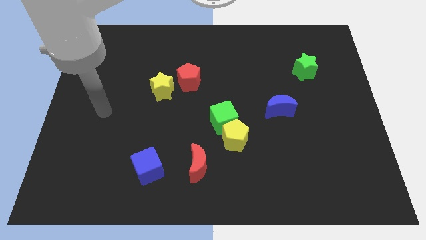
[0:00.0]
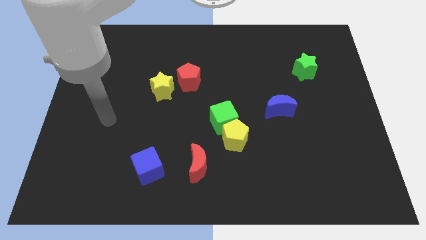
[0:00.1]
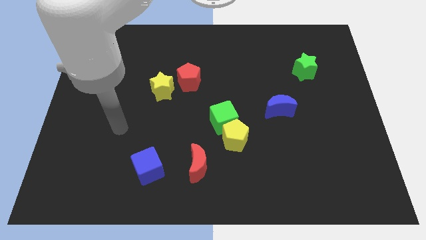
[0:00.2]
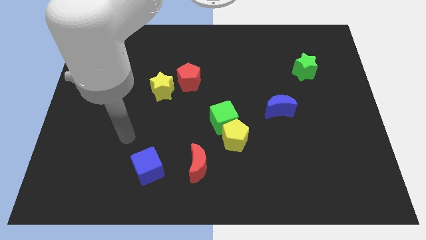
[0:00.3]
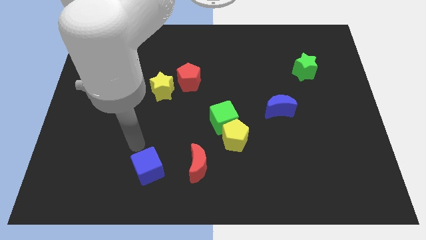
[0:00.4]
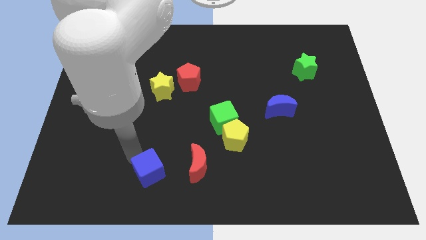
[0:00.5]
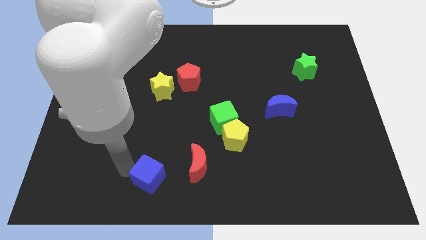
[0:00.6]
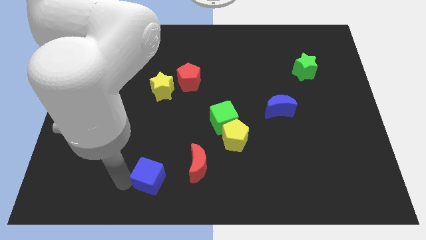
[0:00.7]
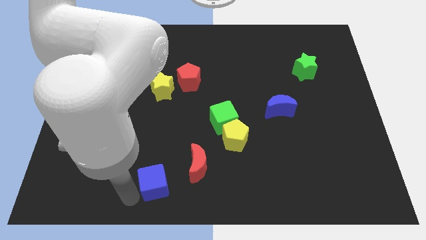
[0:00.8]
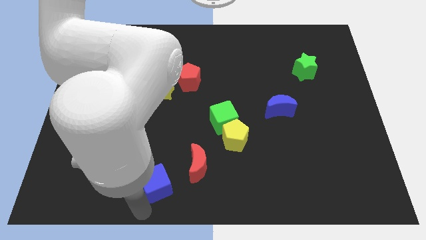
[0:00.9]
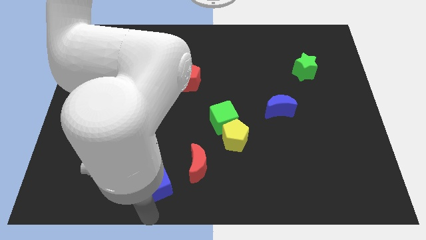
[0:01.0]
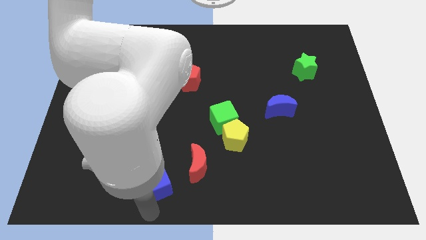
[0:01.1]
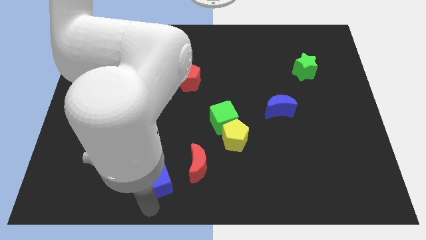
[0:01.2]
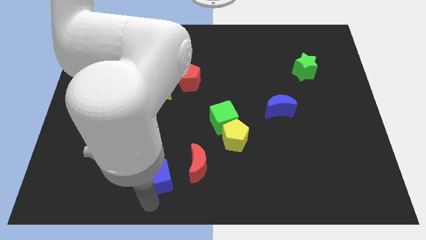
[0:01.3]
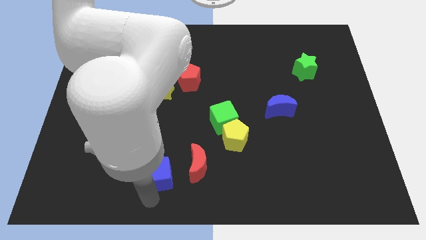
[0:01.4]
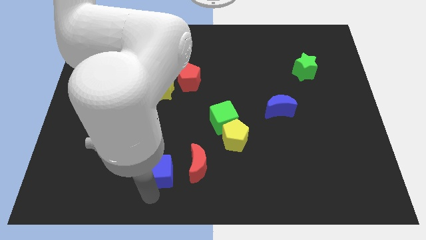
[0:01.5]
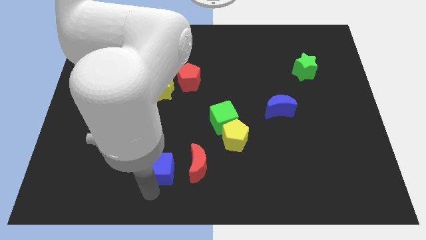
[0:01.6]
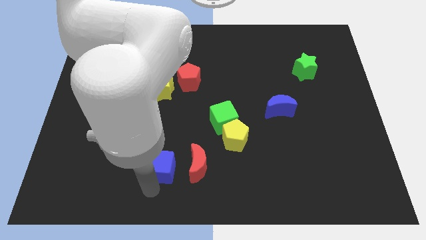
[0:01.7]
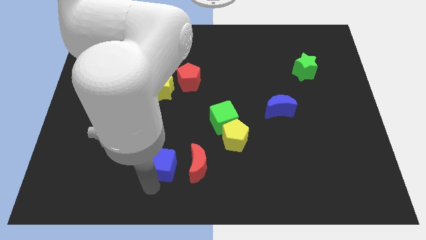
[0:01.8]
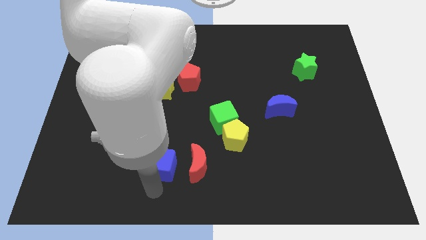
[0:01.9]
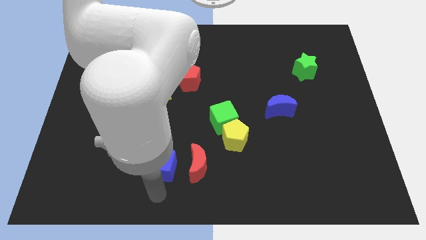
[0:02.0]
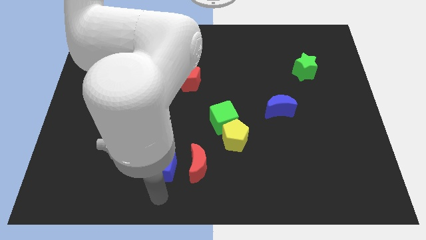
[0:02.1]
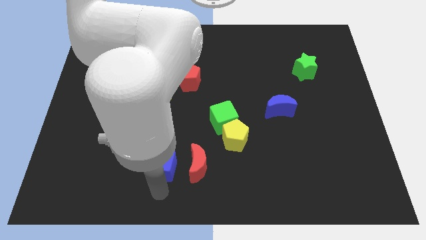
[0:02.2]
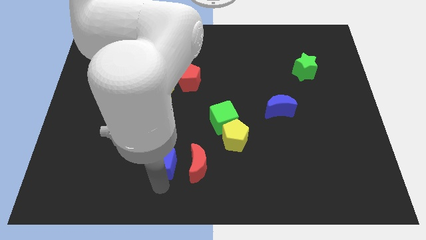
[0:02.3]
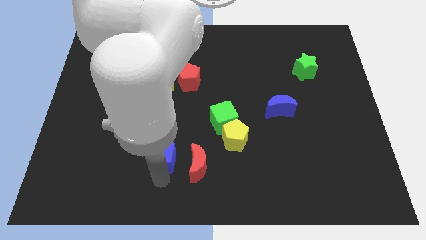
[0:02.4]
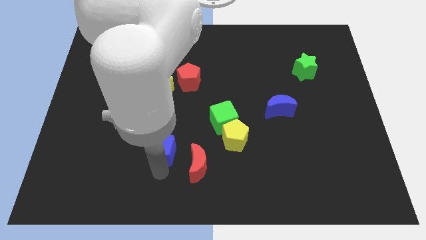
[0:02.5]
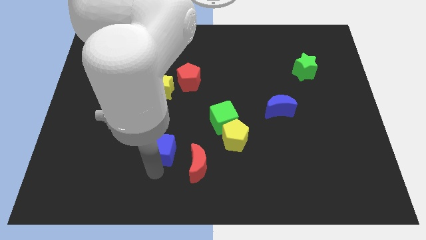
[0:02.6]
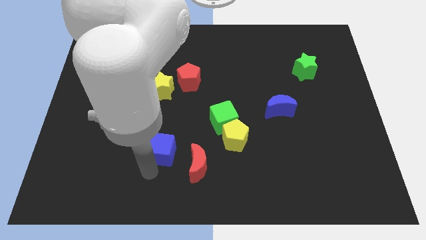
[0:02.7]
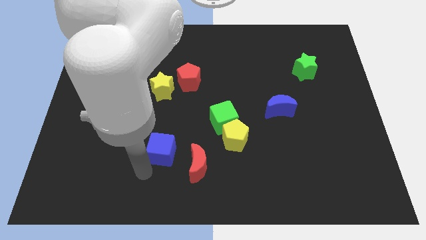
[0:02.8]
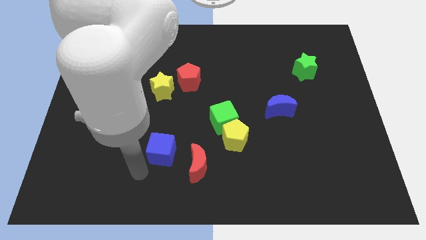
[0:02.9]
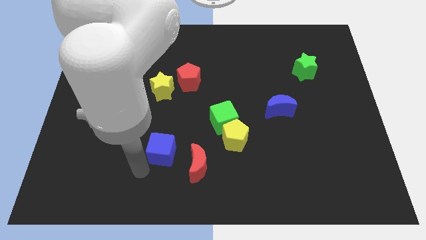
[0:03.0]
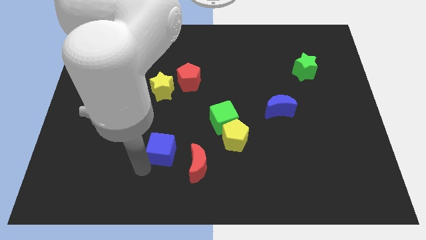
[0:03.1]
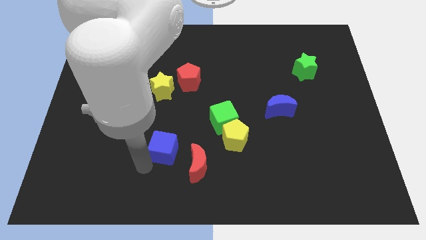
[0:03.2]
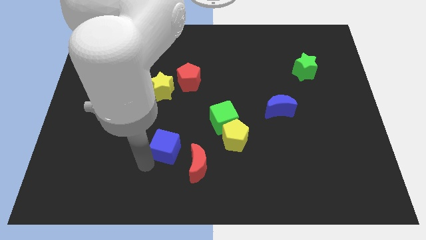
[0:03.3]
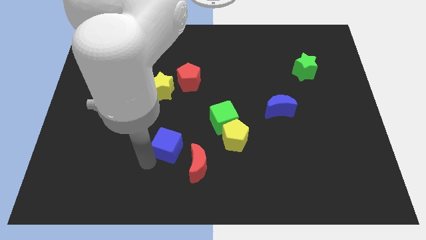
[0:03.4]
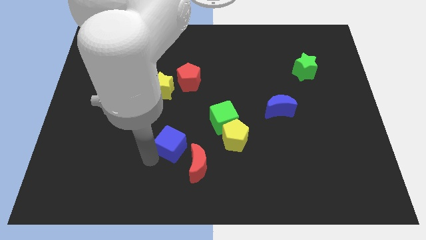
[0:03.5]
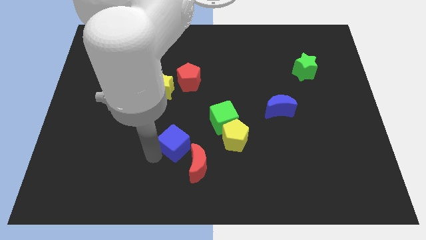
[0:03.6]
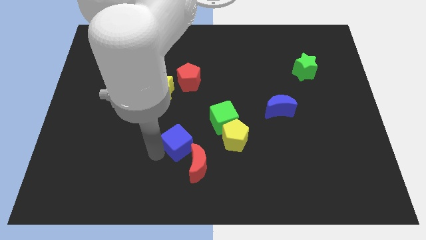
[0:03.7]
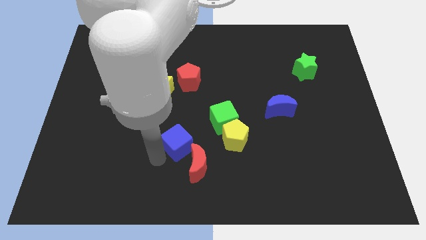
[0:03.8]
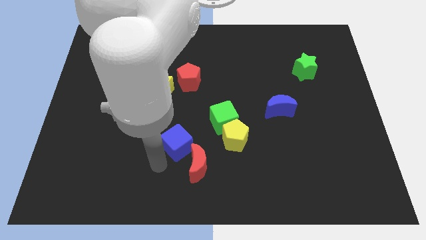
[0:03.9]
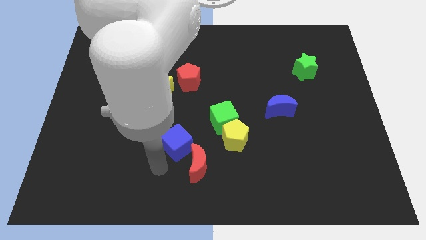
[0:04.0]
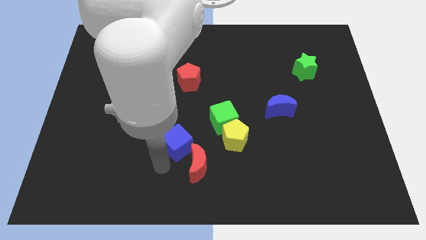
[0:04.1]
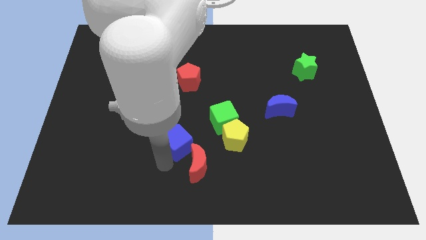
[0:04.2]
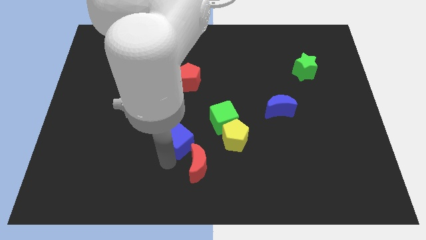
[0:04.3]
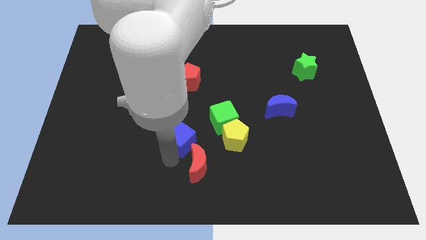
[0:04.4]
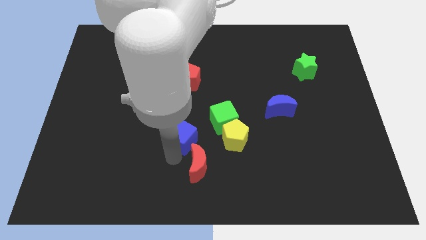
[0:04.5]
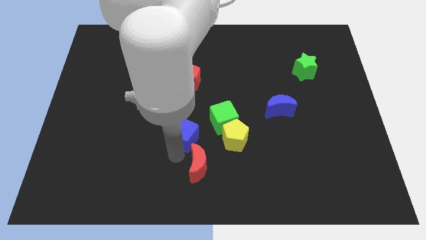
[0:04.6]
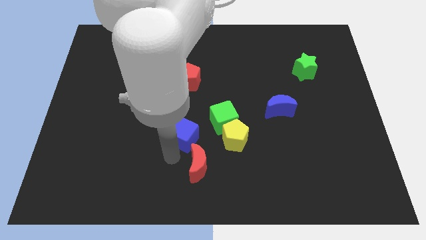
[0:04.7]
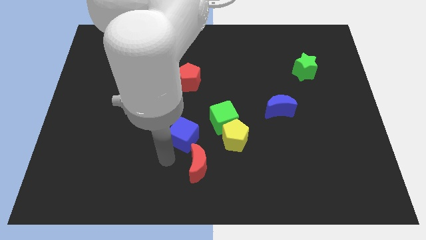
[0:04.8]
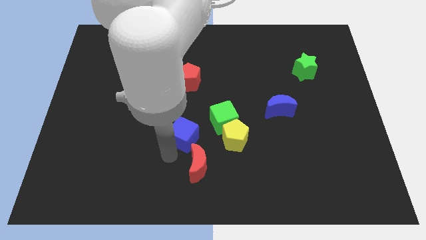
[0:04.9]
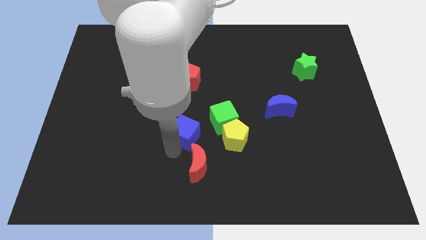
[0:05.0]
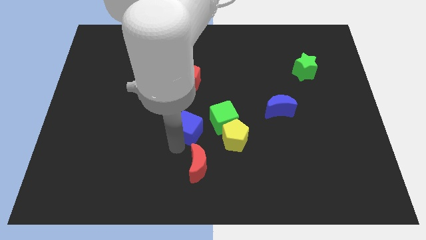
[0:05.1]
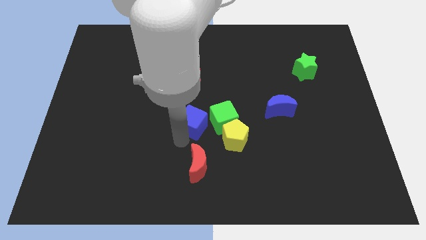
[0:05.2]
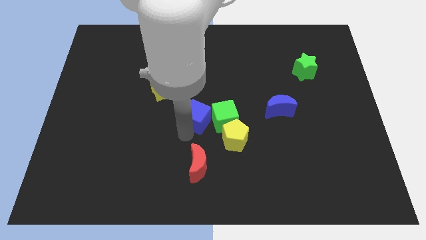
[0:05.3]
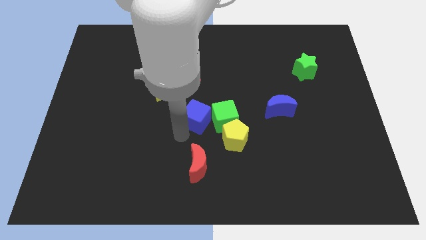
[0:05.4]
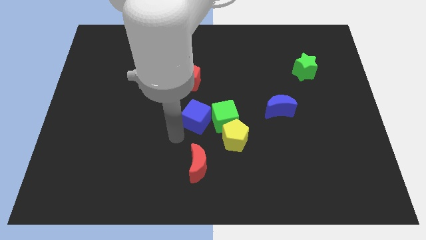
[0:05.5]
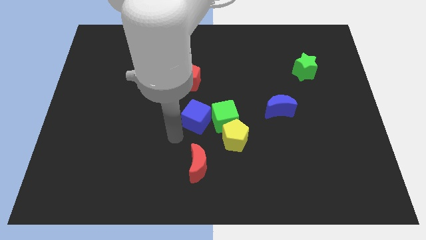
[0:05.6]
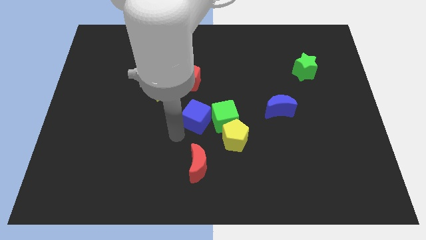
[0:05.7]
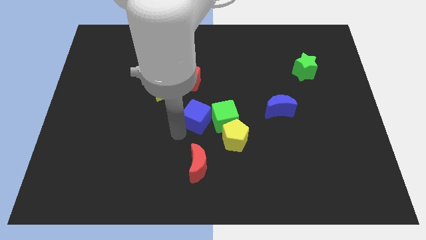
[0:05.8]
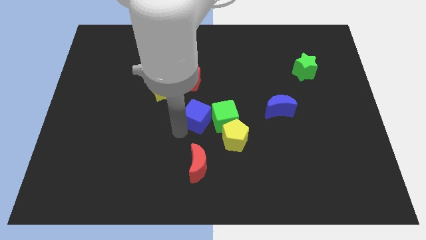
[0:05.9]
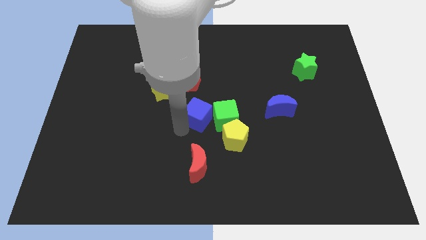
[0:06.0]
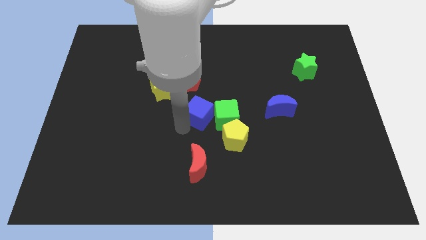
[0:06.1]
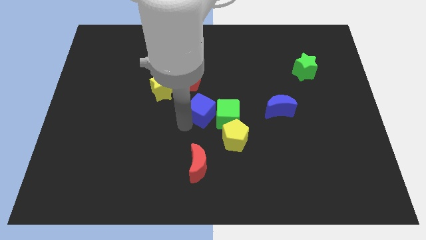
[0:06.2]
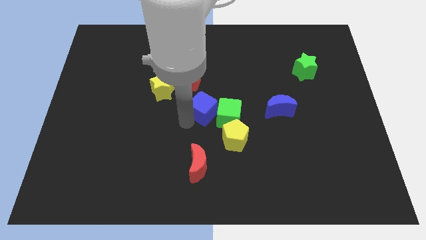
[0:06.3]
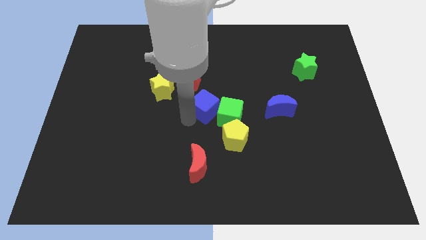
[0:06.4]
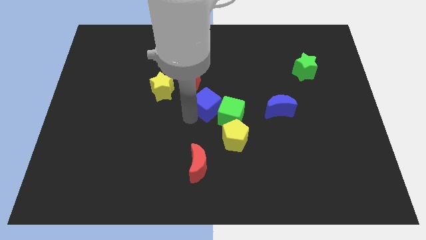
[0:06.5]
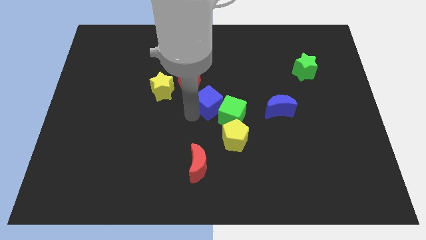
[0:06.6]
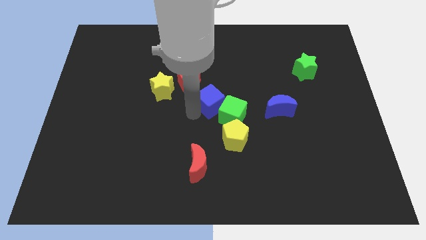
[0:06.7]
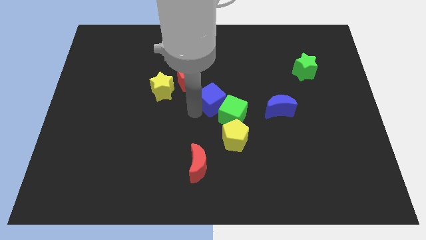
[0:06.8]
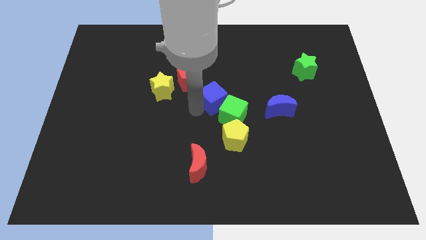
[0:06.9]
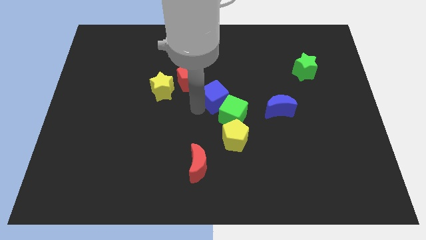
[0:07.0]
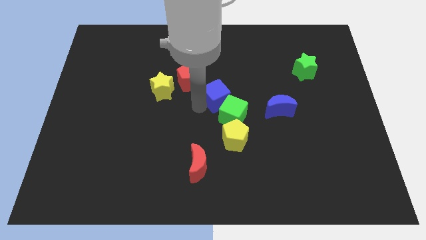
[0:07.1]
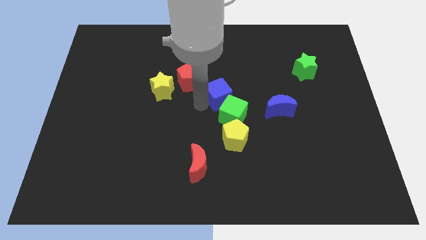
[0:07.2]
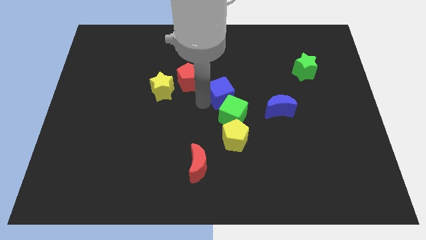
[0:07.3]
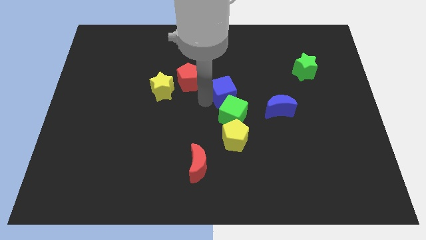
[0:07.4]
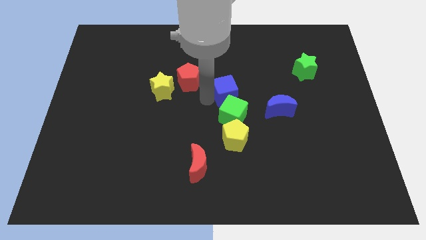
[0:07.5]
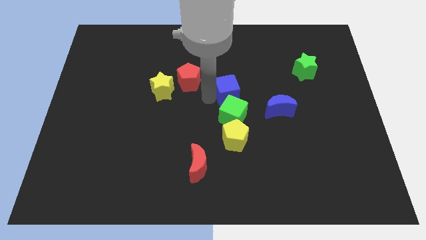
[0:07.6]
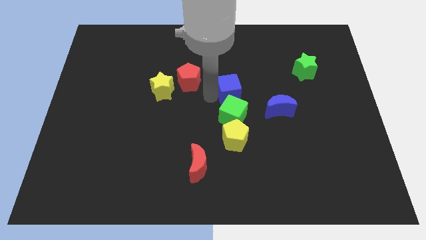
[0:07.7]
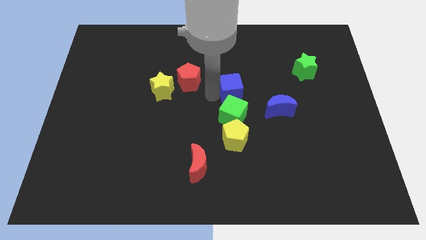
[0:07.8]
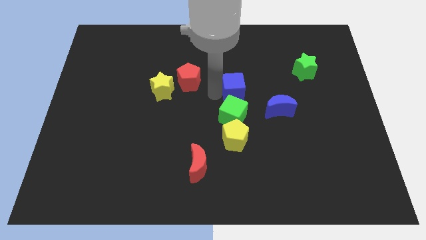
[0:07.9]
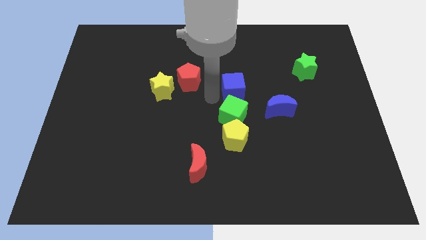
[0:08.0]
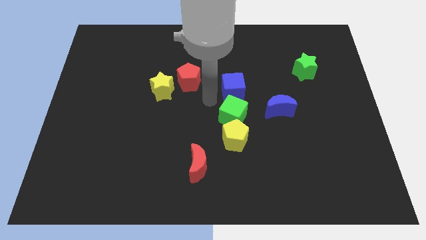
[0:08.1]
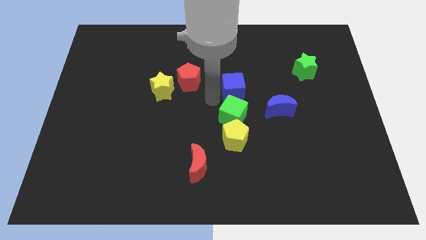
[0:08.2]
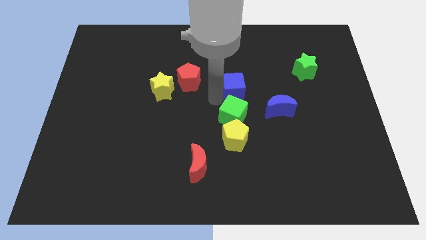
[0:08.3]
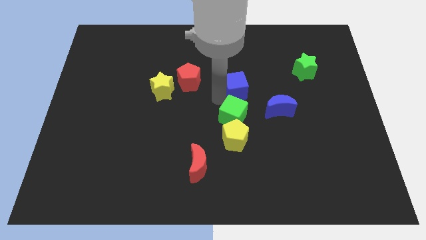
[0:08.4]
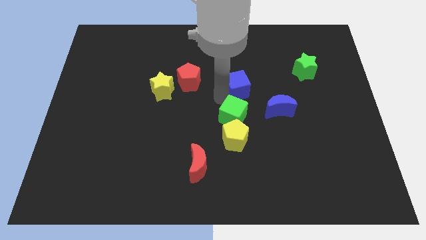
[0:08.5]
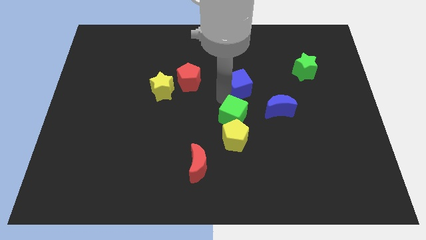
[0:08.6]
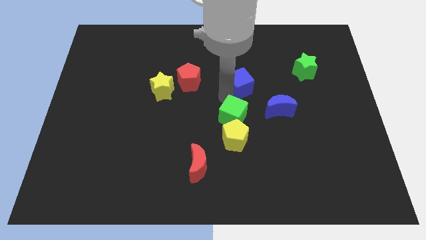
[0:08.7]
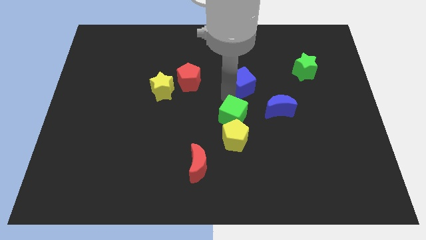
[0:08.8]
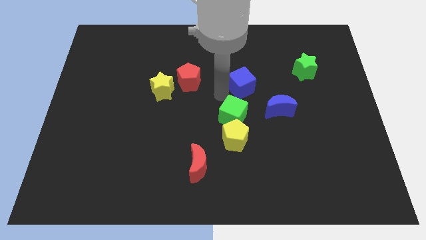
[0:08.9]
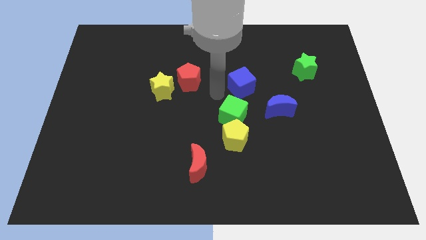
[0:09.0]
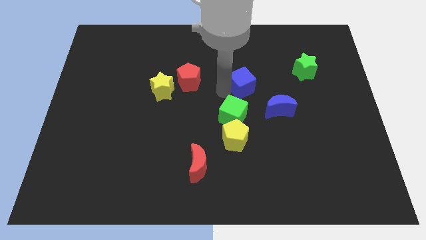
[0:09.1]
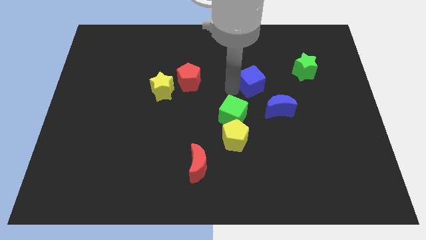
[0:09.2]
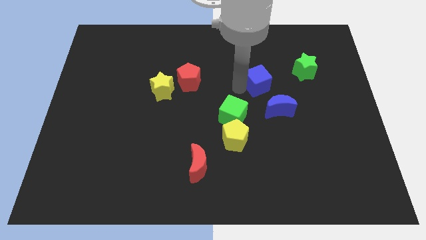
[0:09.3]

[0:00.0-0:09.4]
put the blue cube above the blue moon
